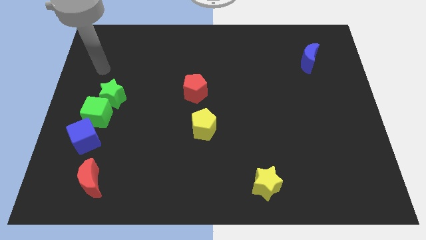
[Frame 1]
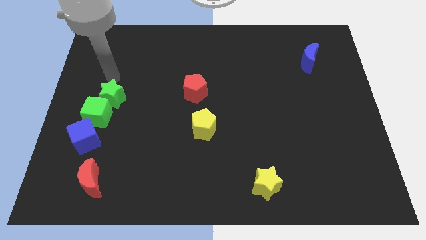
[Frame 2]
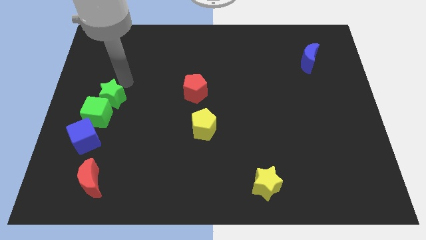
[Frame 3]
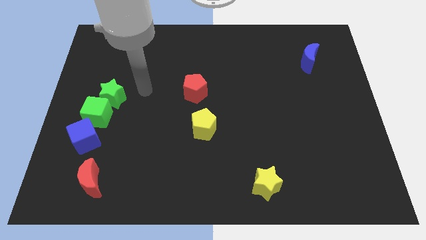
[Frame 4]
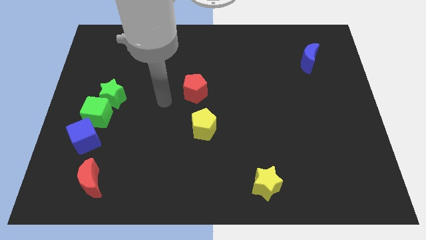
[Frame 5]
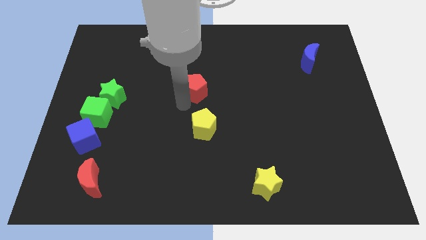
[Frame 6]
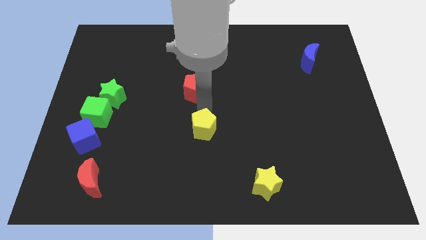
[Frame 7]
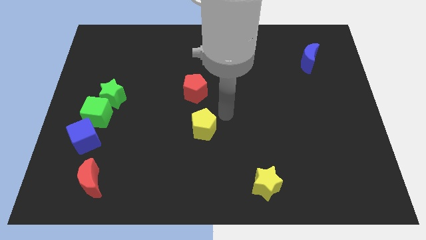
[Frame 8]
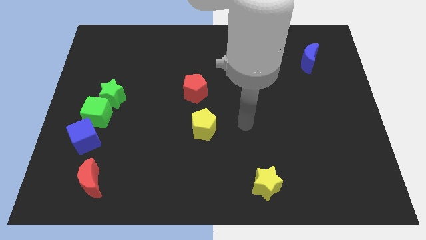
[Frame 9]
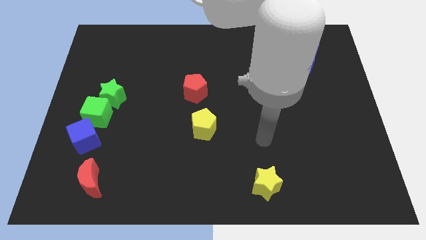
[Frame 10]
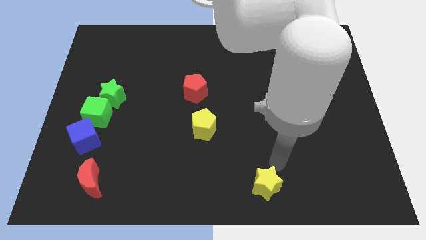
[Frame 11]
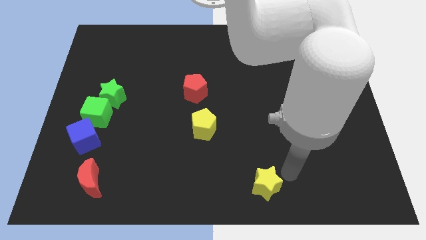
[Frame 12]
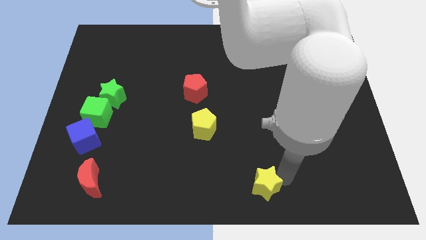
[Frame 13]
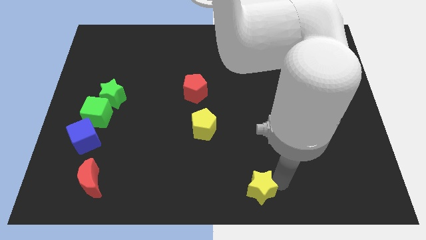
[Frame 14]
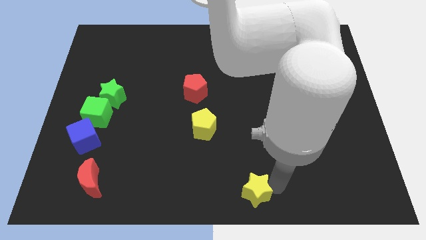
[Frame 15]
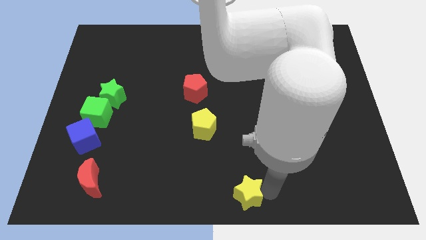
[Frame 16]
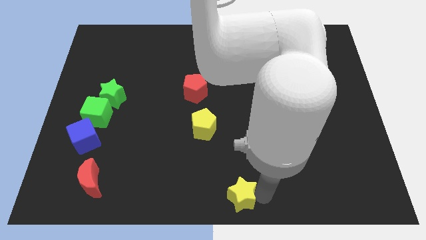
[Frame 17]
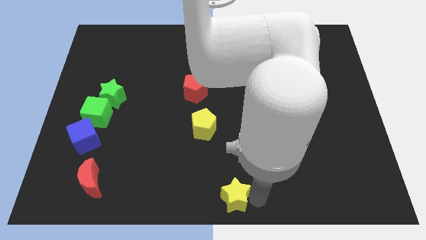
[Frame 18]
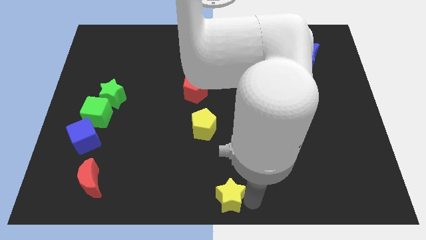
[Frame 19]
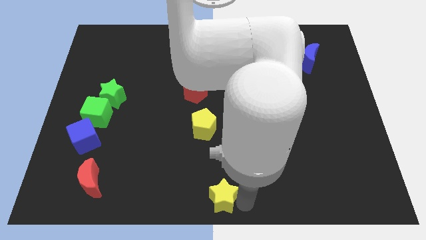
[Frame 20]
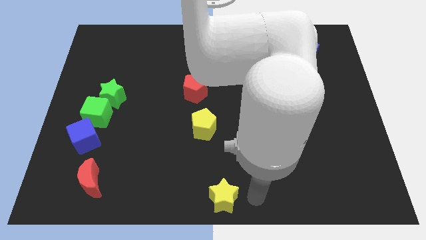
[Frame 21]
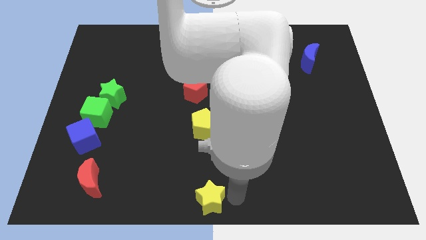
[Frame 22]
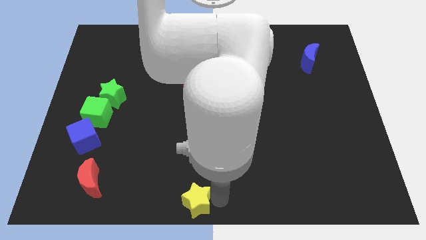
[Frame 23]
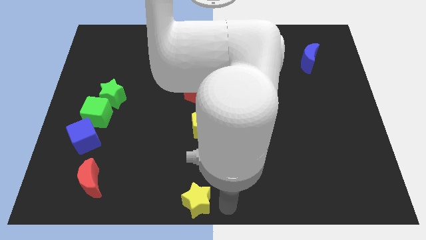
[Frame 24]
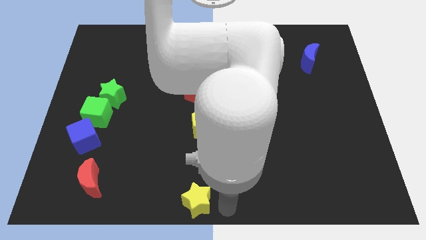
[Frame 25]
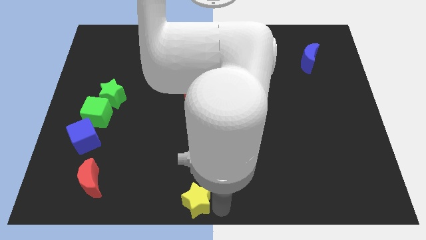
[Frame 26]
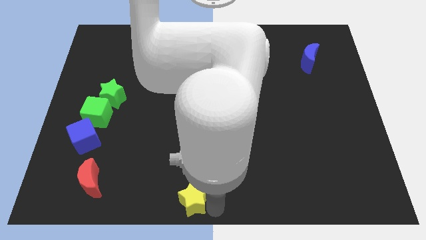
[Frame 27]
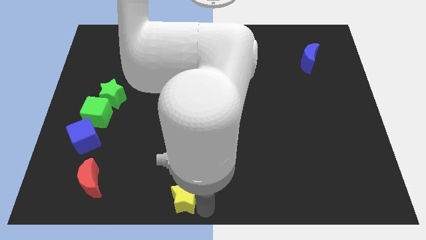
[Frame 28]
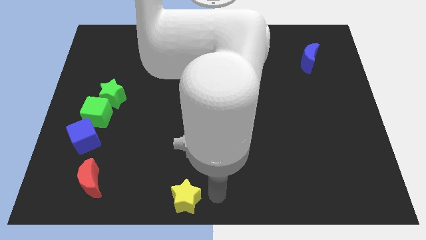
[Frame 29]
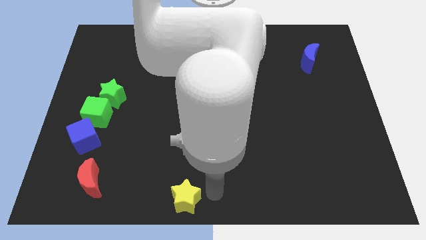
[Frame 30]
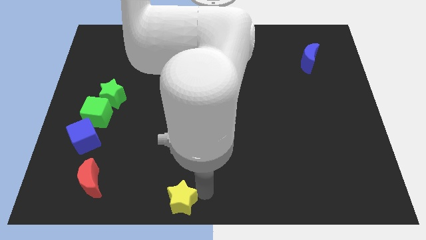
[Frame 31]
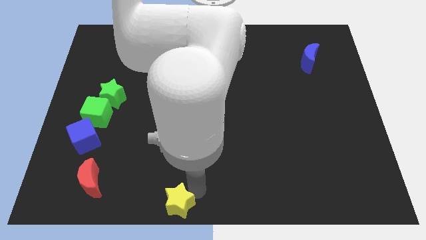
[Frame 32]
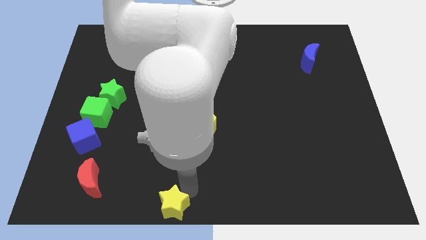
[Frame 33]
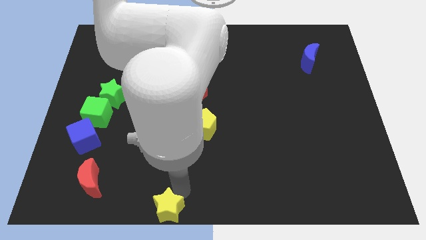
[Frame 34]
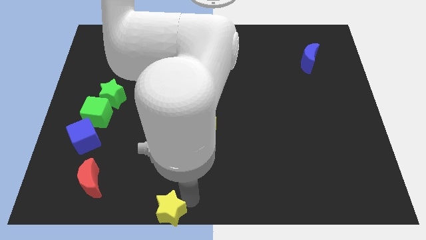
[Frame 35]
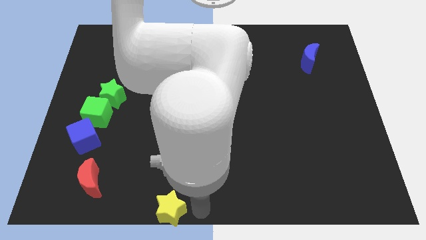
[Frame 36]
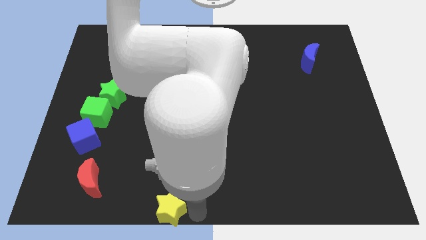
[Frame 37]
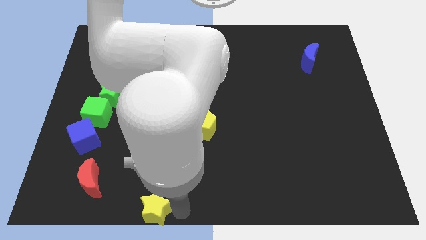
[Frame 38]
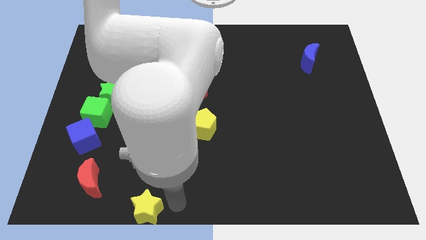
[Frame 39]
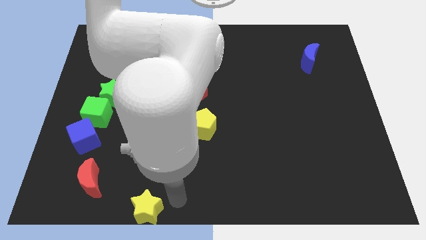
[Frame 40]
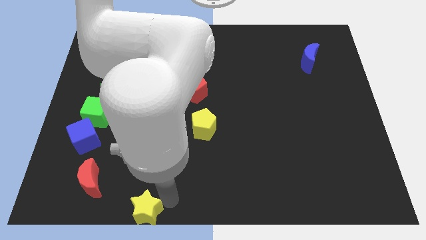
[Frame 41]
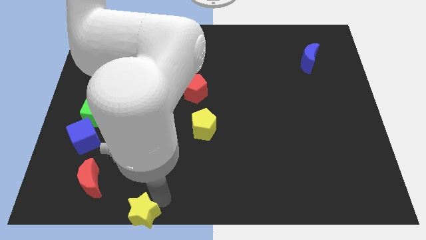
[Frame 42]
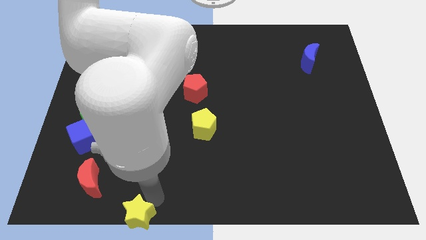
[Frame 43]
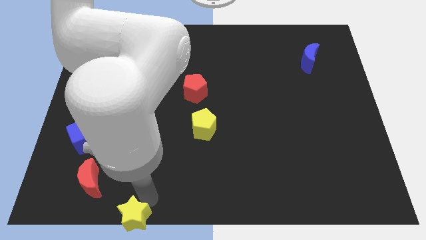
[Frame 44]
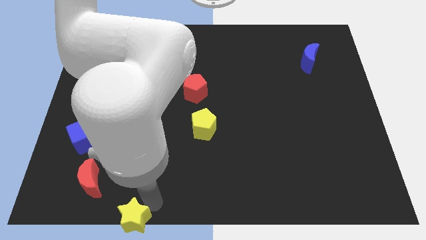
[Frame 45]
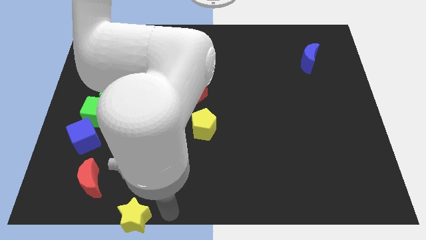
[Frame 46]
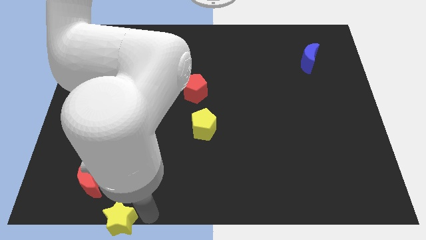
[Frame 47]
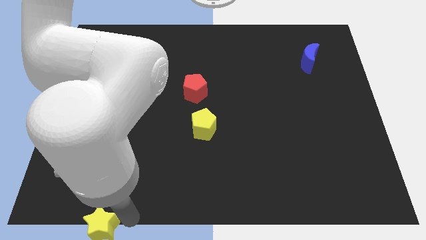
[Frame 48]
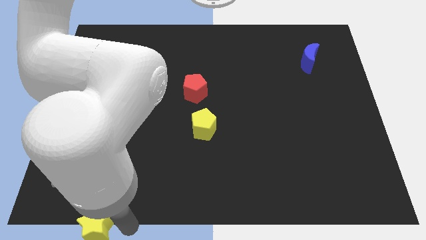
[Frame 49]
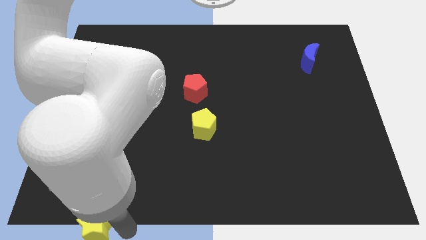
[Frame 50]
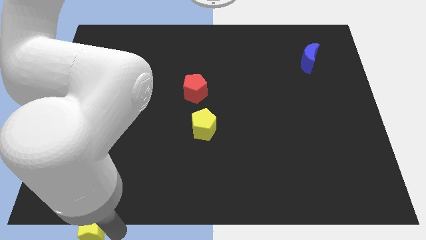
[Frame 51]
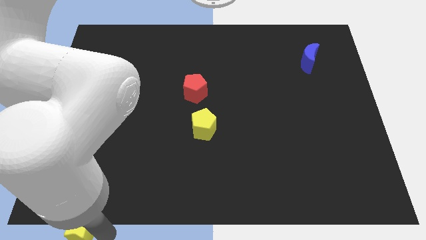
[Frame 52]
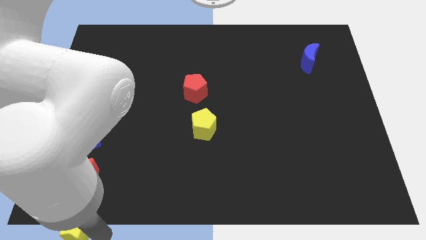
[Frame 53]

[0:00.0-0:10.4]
push the yellow star to the bottom left corner

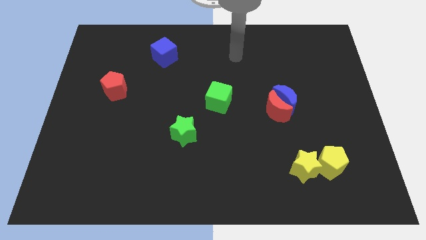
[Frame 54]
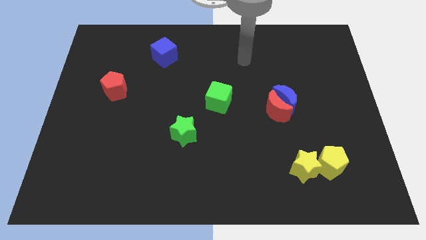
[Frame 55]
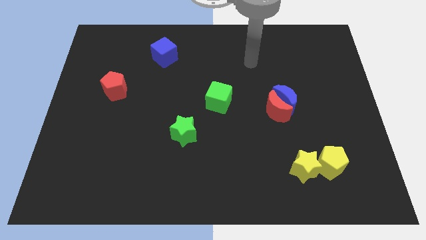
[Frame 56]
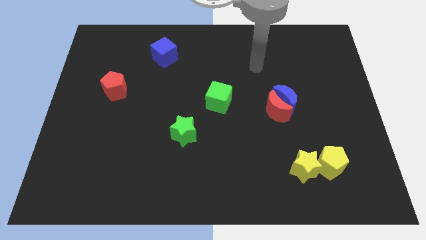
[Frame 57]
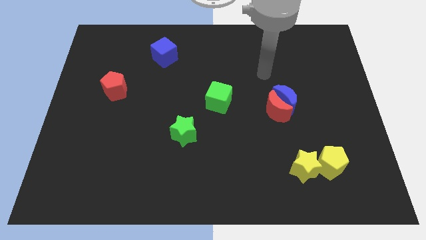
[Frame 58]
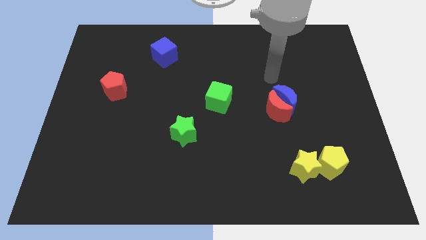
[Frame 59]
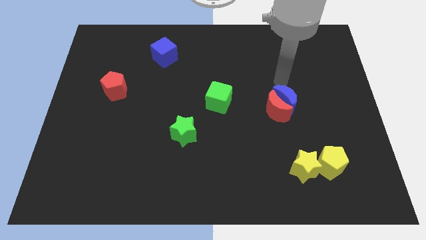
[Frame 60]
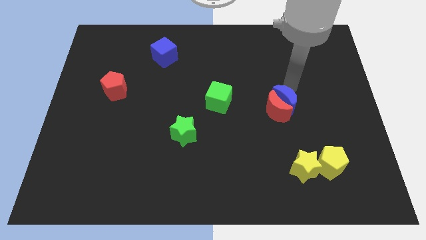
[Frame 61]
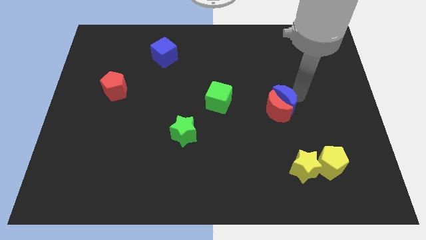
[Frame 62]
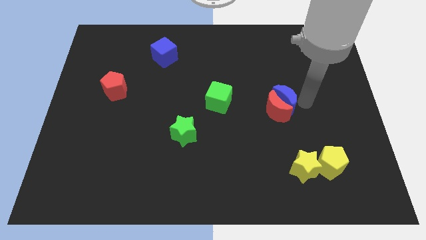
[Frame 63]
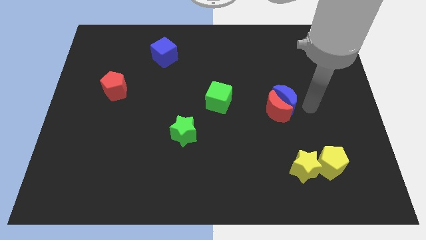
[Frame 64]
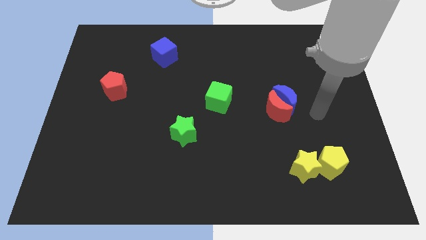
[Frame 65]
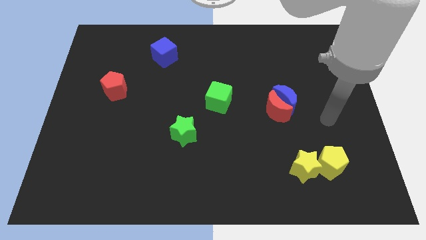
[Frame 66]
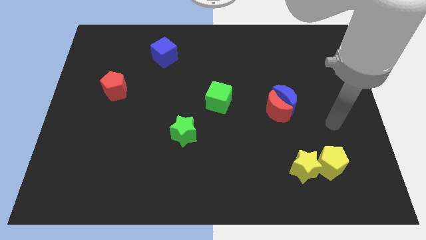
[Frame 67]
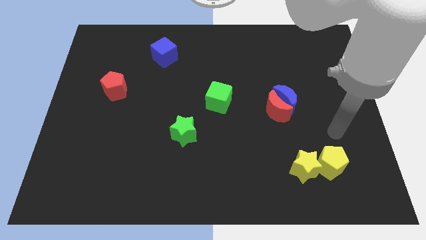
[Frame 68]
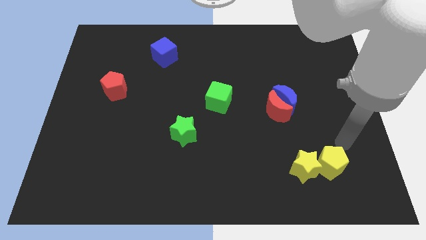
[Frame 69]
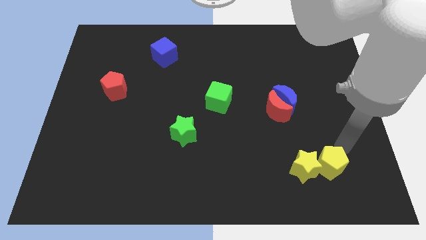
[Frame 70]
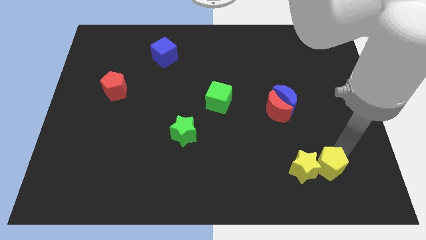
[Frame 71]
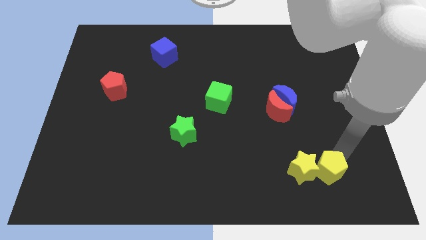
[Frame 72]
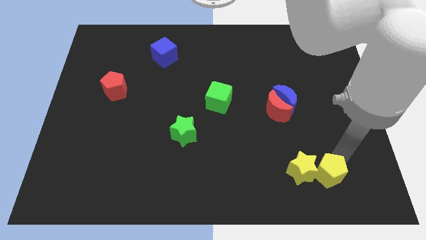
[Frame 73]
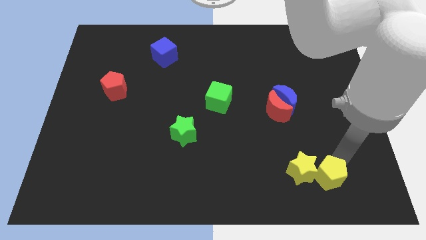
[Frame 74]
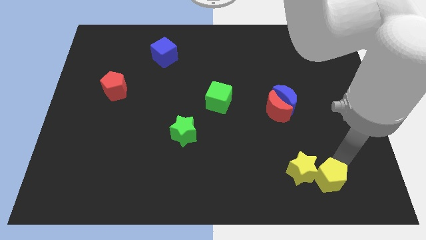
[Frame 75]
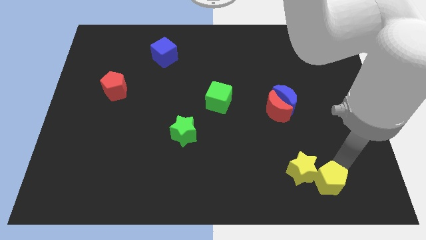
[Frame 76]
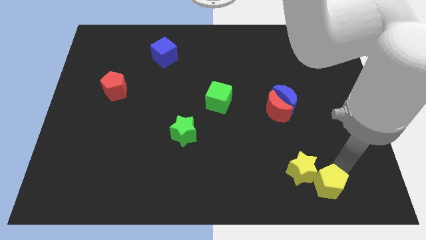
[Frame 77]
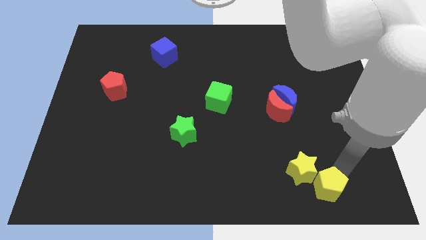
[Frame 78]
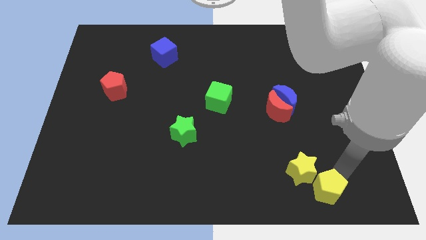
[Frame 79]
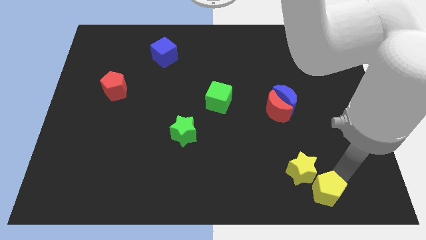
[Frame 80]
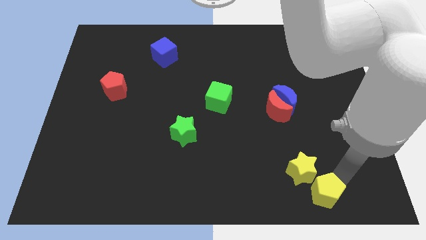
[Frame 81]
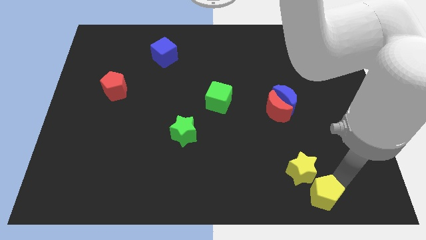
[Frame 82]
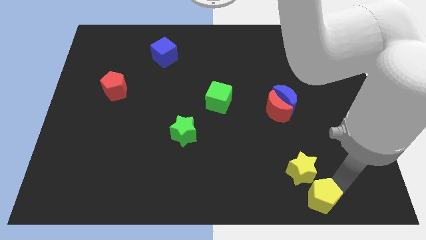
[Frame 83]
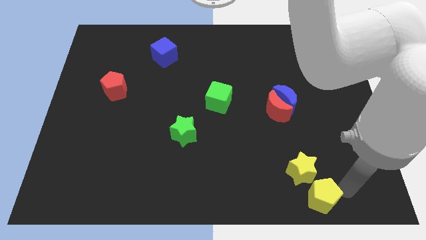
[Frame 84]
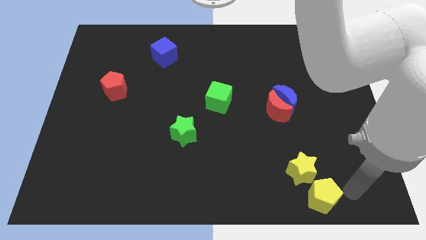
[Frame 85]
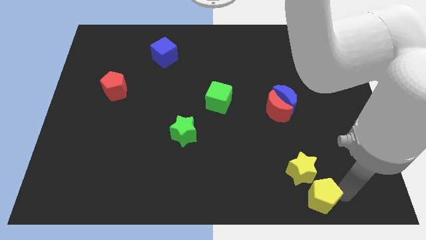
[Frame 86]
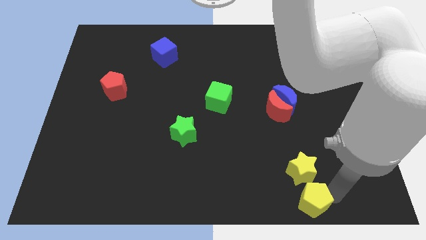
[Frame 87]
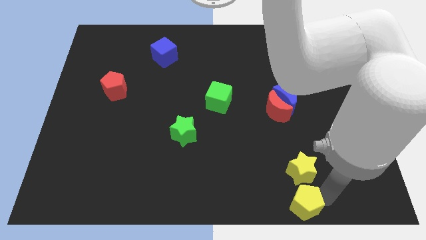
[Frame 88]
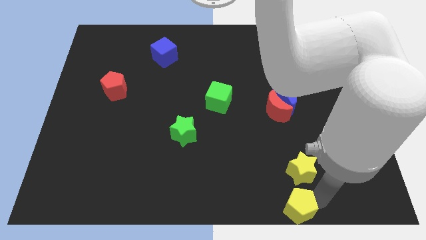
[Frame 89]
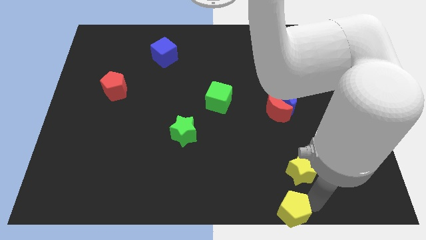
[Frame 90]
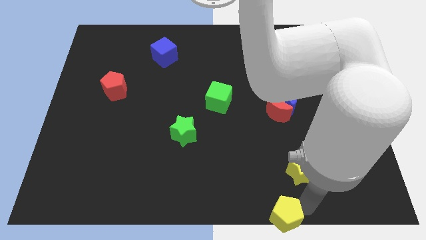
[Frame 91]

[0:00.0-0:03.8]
move the yellow pentagon to the bottom
